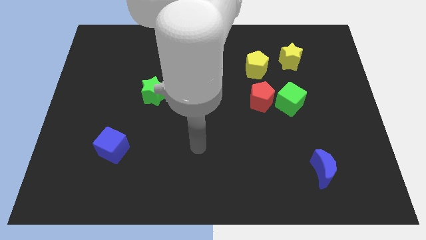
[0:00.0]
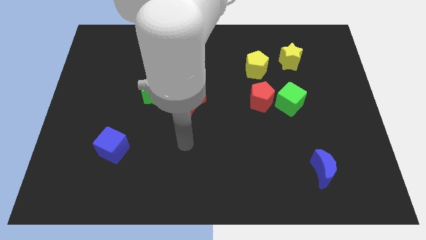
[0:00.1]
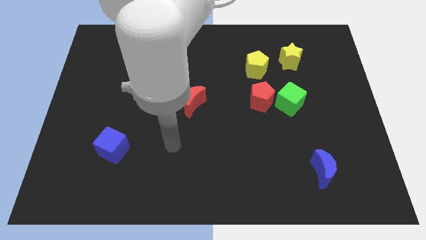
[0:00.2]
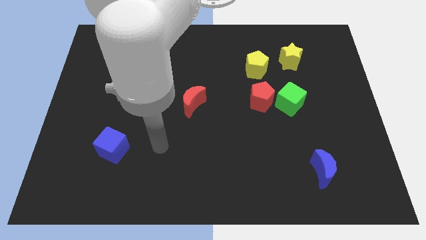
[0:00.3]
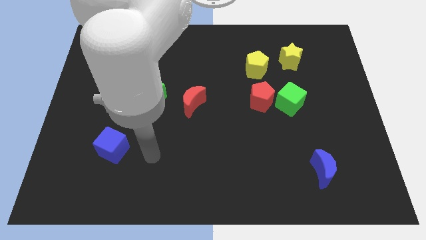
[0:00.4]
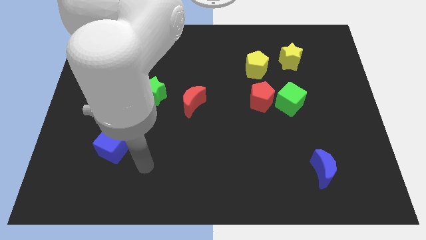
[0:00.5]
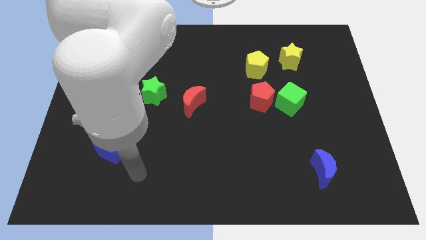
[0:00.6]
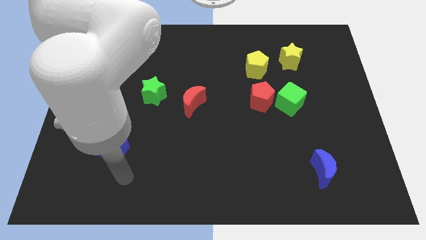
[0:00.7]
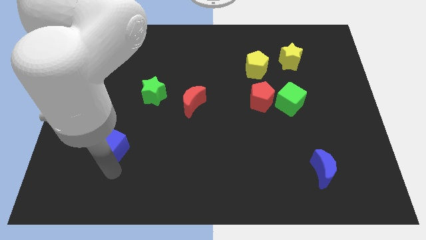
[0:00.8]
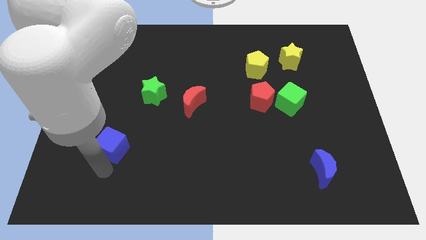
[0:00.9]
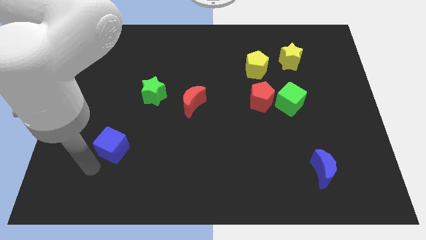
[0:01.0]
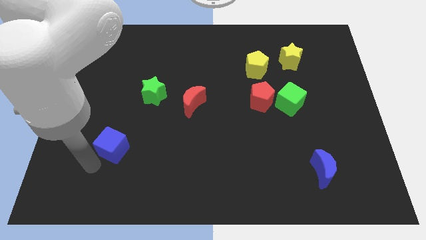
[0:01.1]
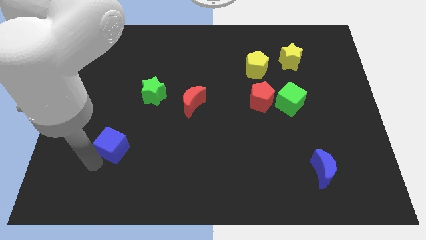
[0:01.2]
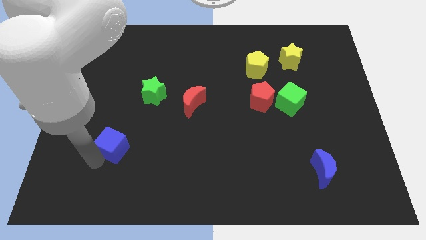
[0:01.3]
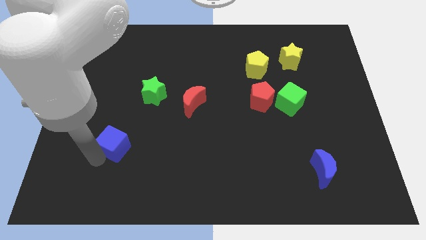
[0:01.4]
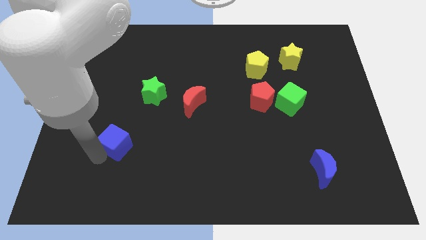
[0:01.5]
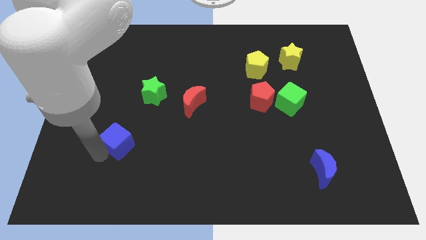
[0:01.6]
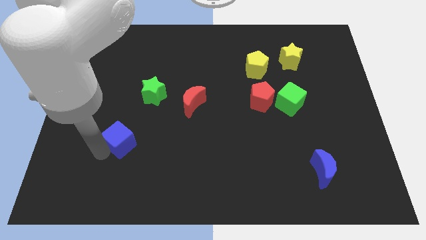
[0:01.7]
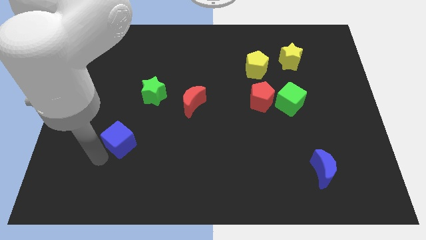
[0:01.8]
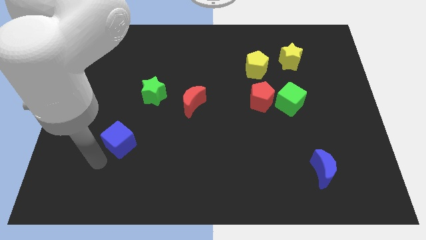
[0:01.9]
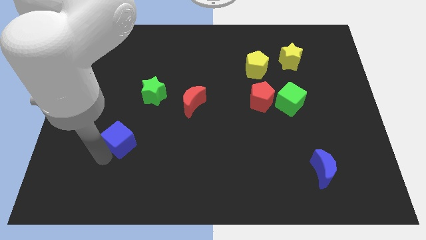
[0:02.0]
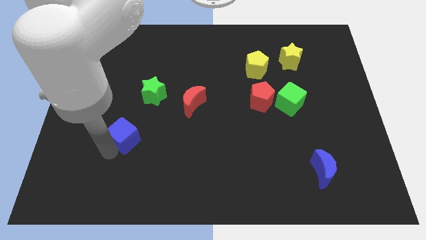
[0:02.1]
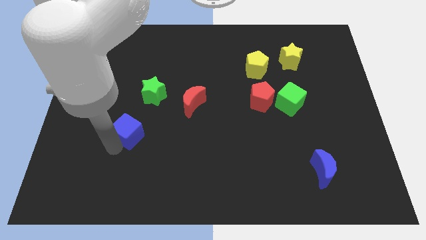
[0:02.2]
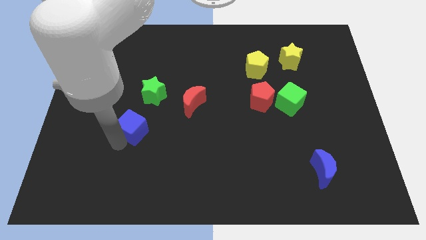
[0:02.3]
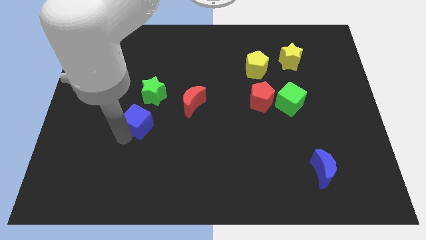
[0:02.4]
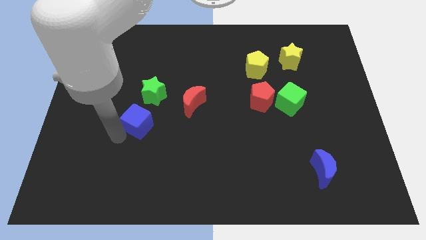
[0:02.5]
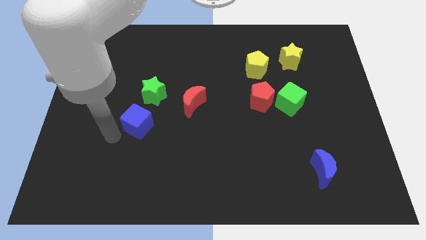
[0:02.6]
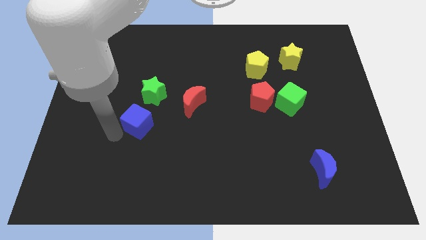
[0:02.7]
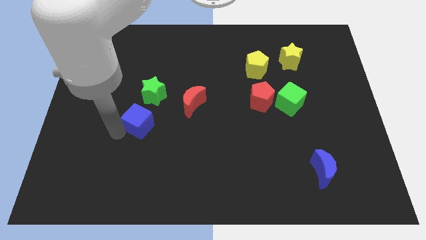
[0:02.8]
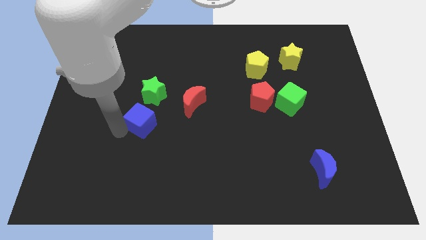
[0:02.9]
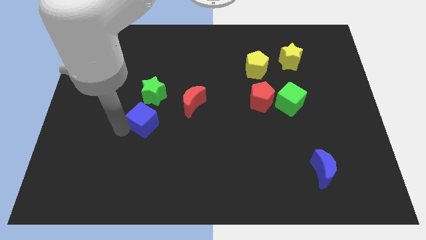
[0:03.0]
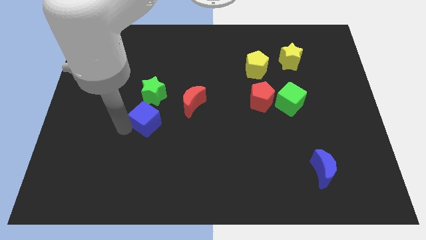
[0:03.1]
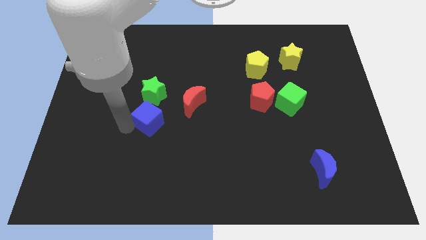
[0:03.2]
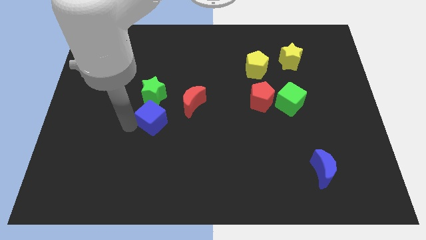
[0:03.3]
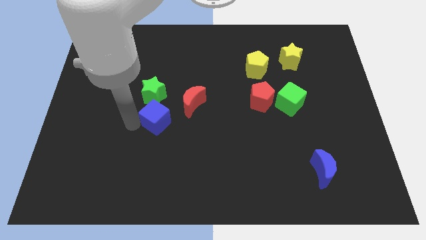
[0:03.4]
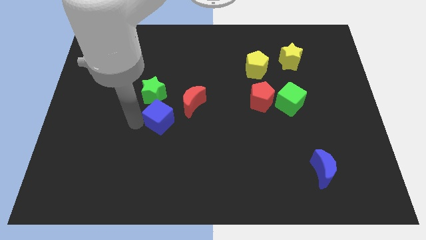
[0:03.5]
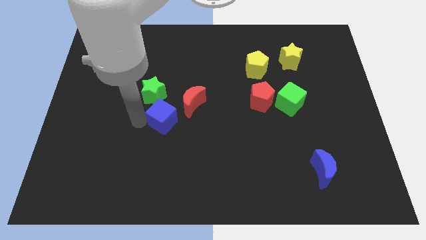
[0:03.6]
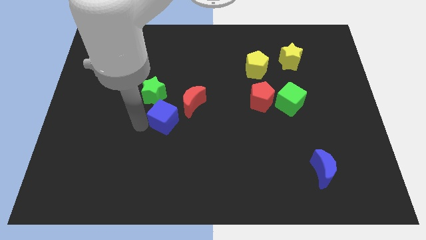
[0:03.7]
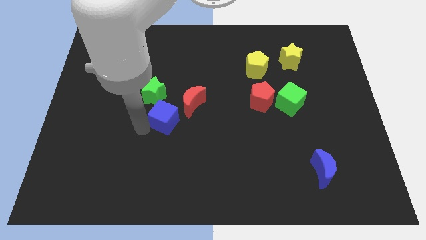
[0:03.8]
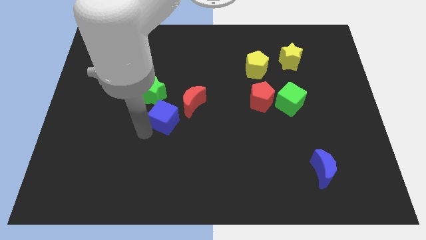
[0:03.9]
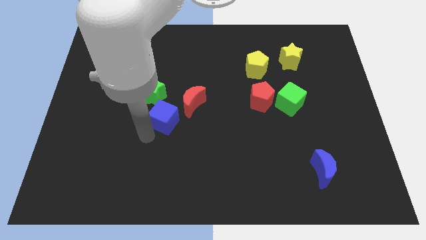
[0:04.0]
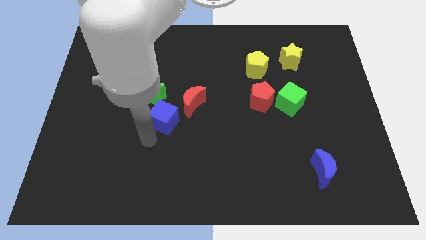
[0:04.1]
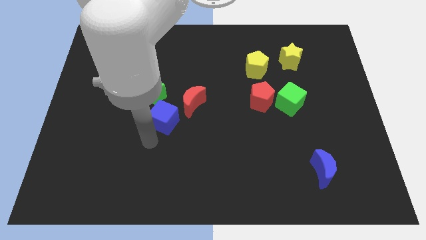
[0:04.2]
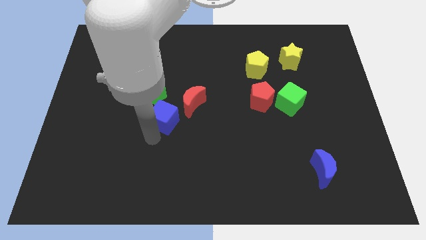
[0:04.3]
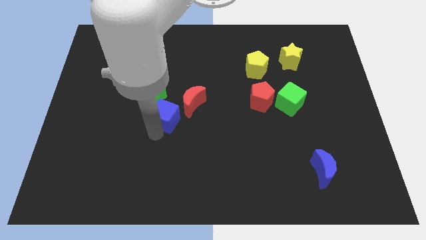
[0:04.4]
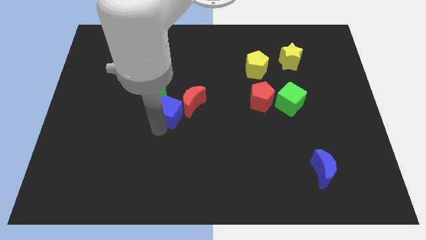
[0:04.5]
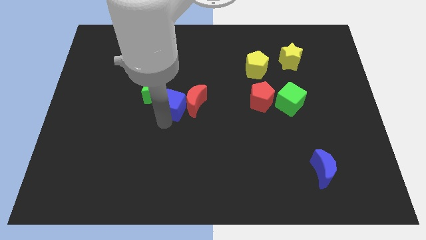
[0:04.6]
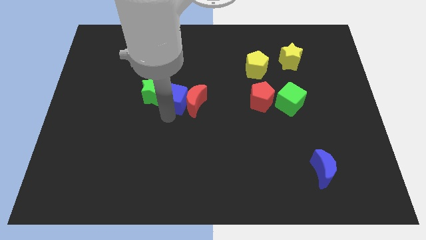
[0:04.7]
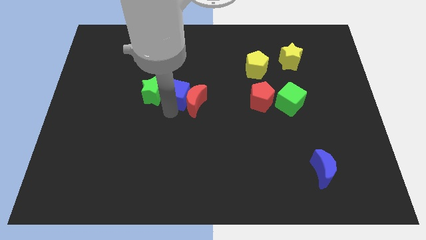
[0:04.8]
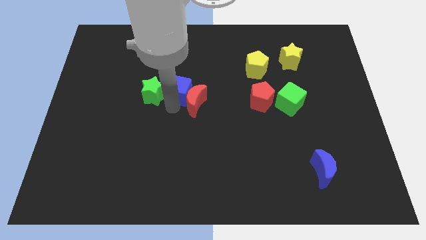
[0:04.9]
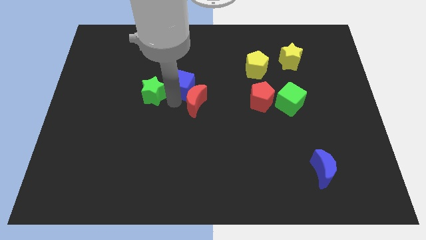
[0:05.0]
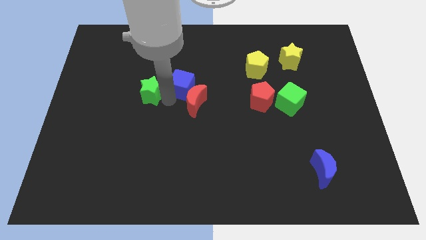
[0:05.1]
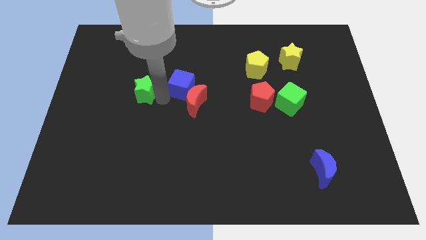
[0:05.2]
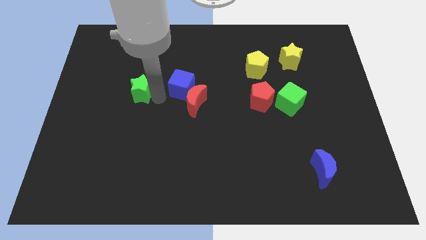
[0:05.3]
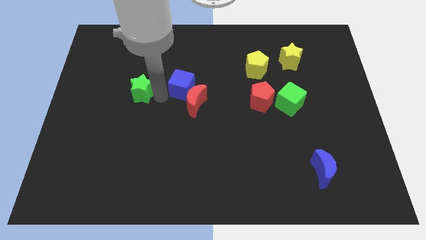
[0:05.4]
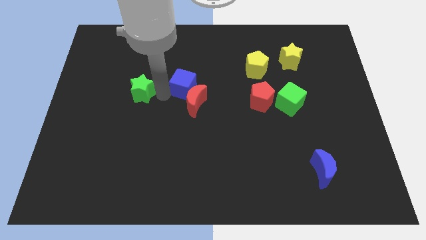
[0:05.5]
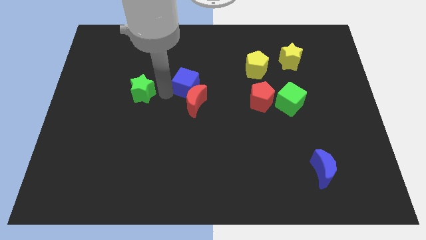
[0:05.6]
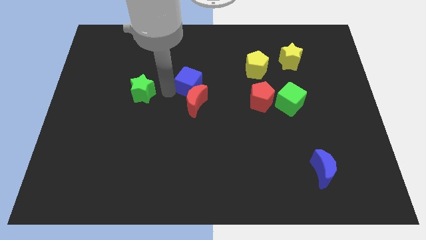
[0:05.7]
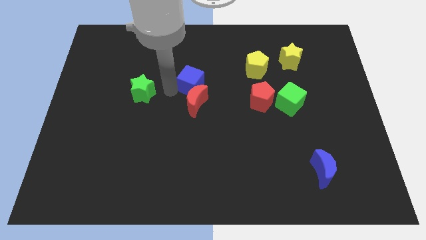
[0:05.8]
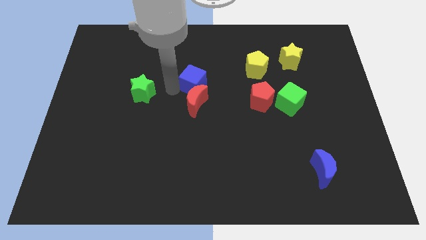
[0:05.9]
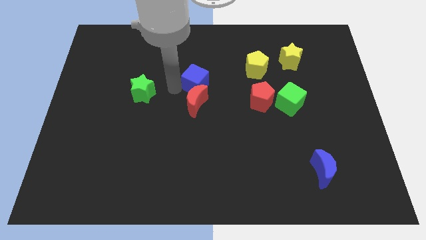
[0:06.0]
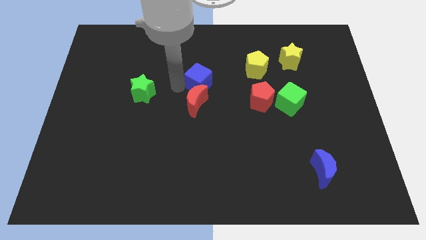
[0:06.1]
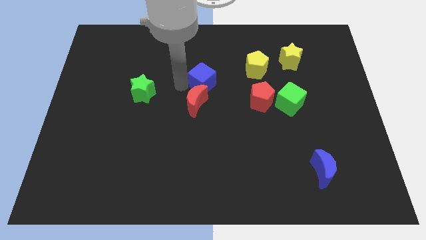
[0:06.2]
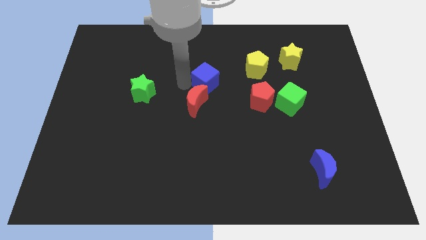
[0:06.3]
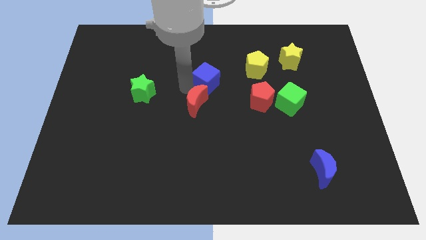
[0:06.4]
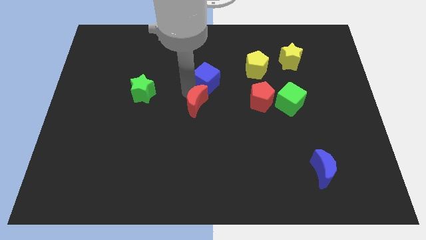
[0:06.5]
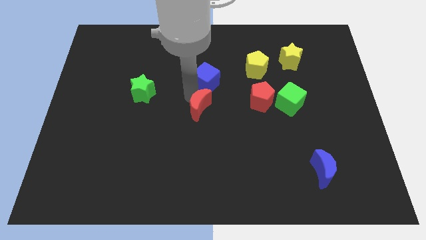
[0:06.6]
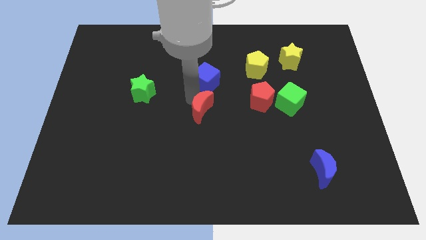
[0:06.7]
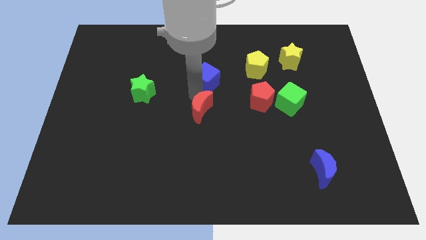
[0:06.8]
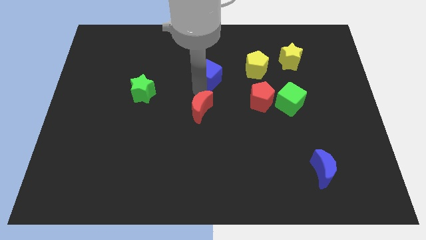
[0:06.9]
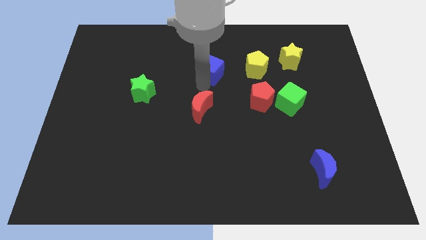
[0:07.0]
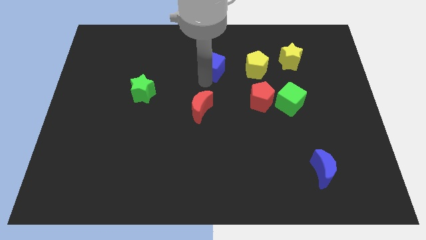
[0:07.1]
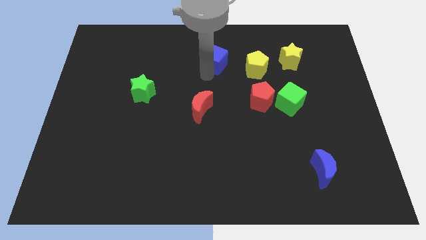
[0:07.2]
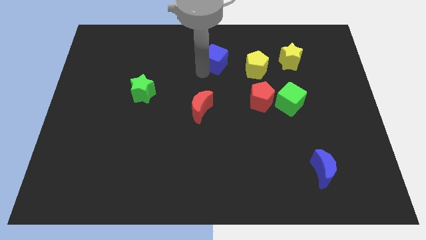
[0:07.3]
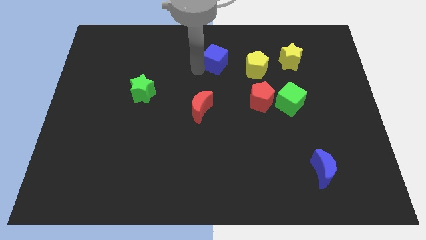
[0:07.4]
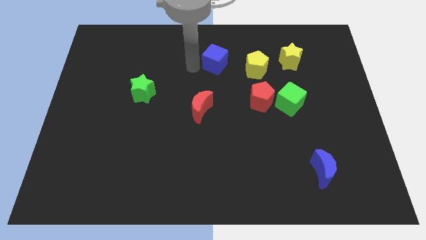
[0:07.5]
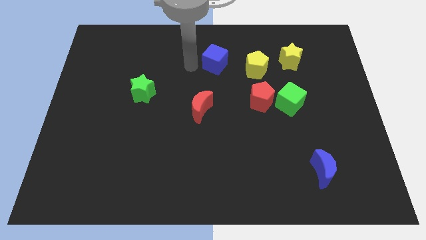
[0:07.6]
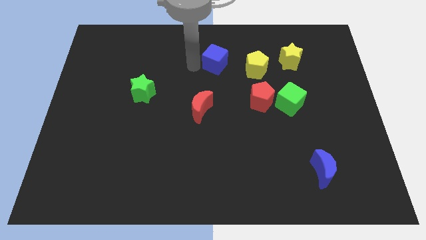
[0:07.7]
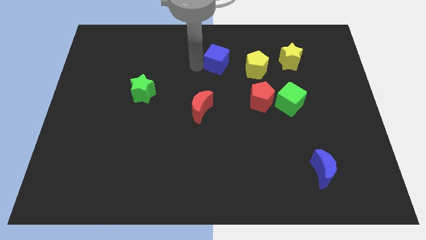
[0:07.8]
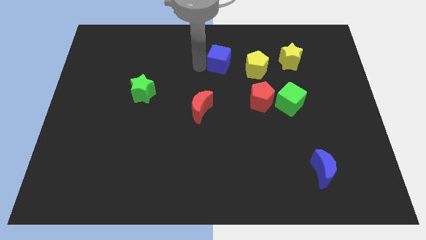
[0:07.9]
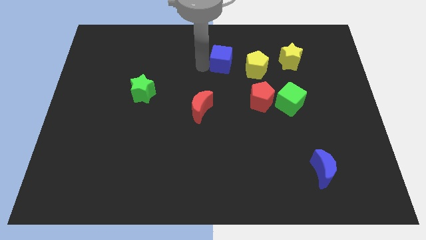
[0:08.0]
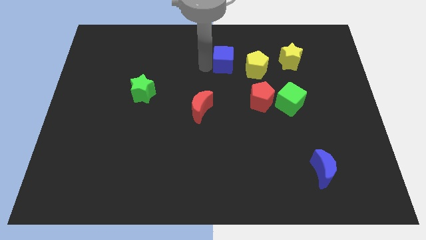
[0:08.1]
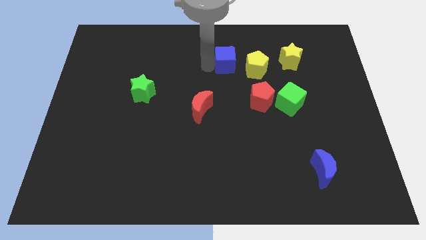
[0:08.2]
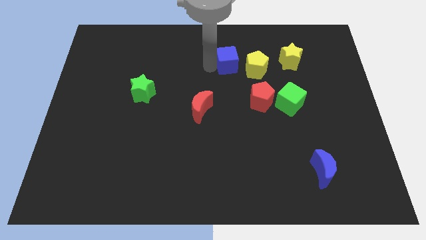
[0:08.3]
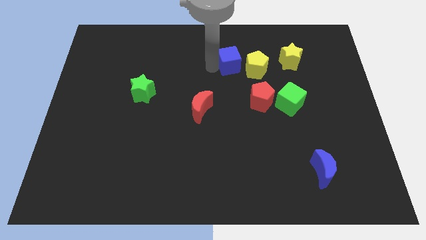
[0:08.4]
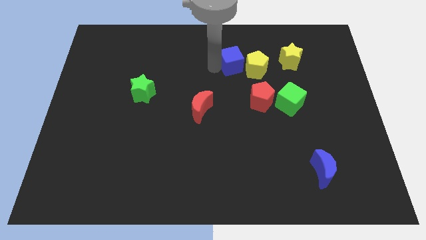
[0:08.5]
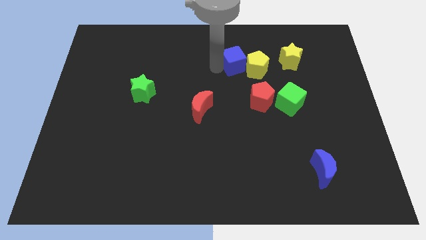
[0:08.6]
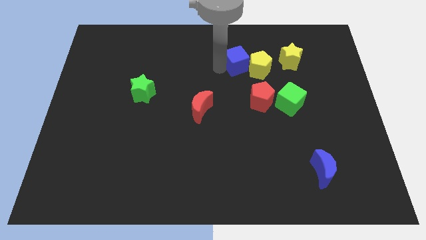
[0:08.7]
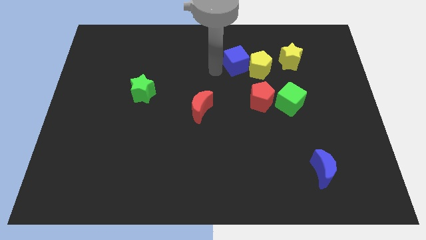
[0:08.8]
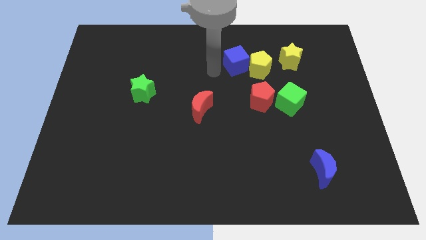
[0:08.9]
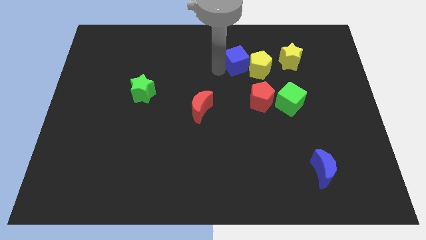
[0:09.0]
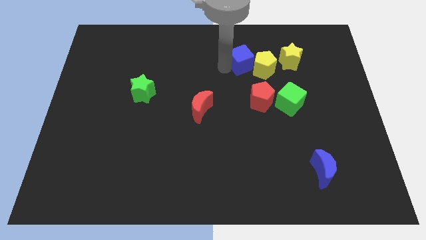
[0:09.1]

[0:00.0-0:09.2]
move the blue cube above the red pentagon
